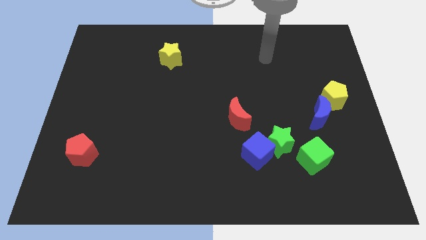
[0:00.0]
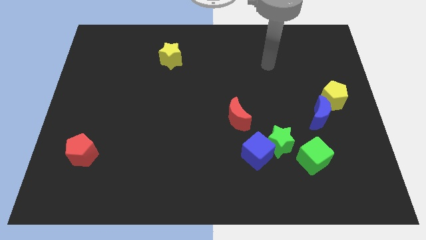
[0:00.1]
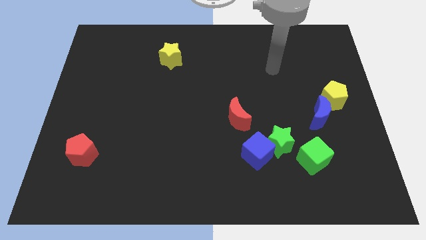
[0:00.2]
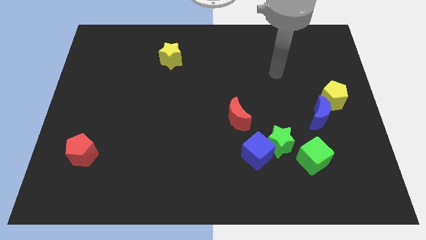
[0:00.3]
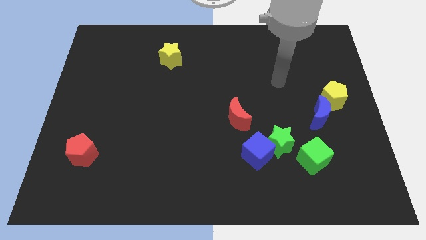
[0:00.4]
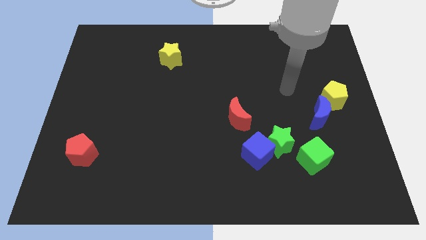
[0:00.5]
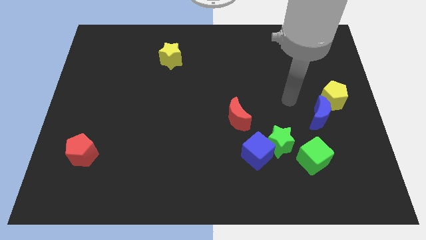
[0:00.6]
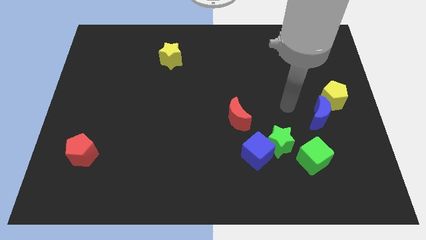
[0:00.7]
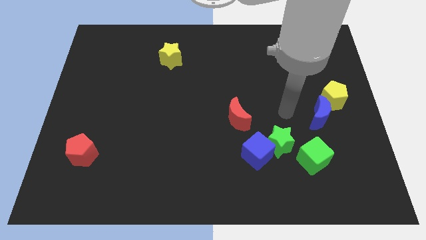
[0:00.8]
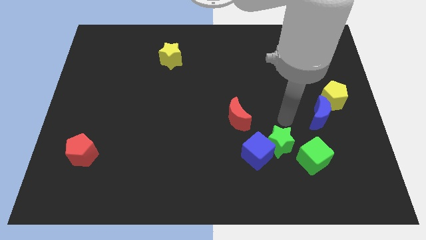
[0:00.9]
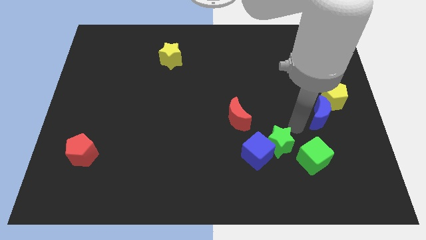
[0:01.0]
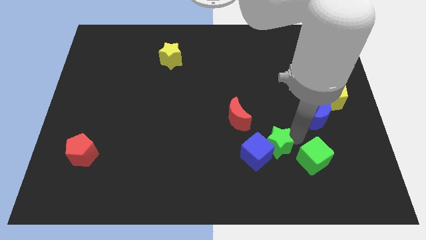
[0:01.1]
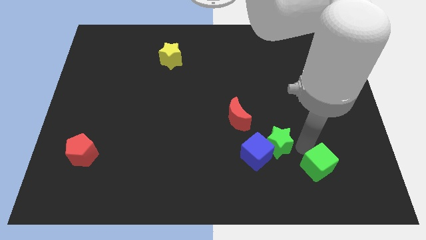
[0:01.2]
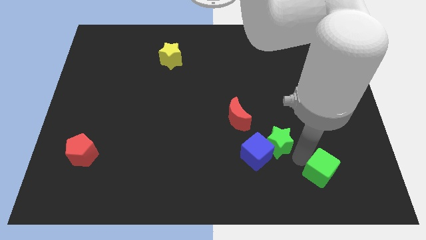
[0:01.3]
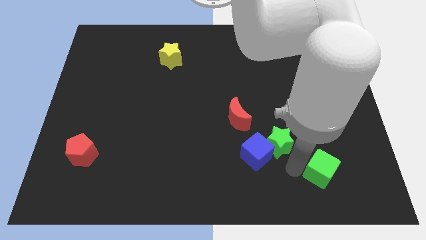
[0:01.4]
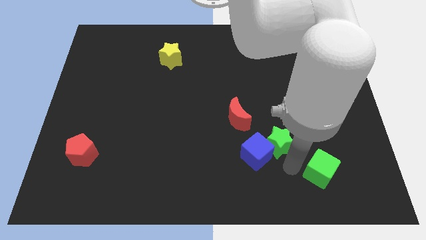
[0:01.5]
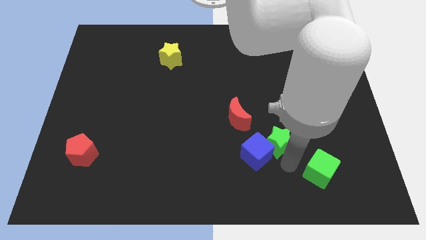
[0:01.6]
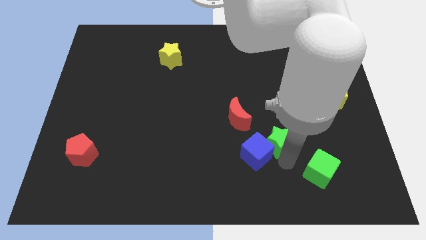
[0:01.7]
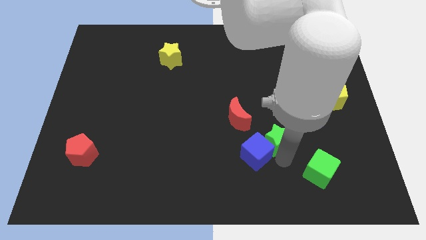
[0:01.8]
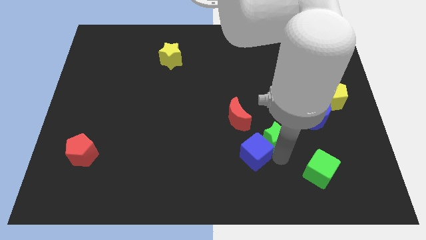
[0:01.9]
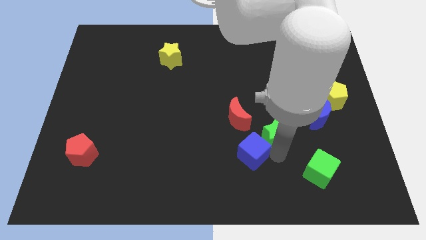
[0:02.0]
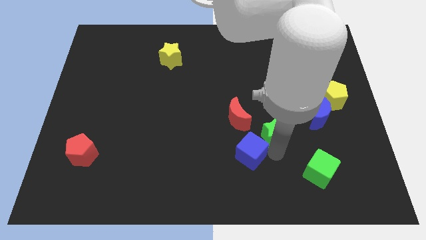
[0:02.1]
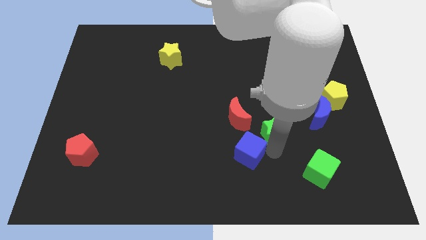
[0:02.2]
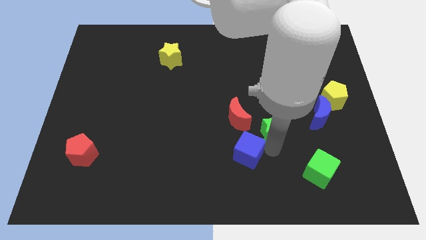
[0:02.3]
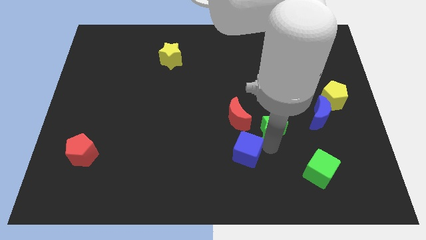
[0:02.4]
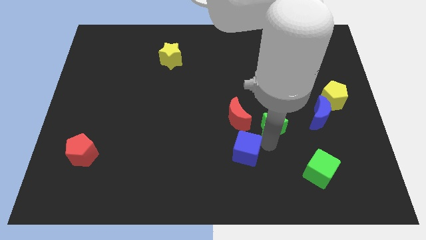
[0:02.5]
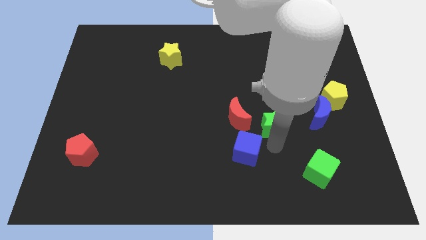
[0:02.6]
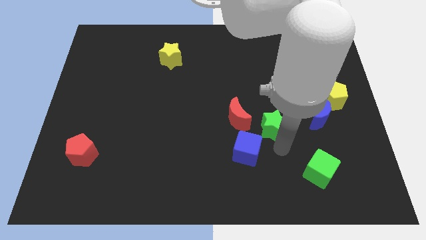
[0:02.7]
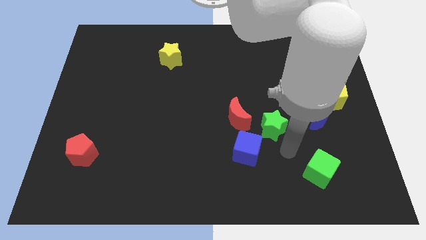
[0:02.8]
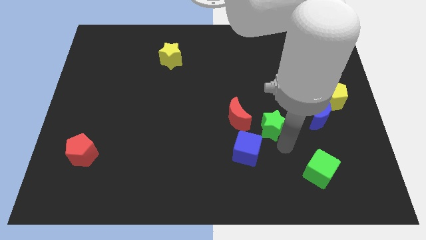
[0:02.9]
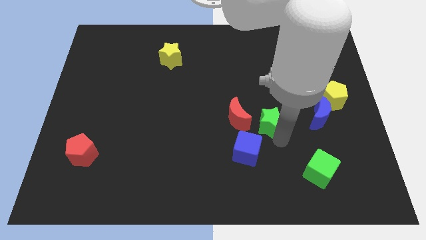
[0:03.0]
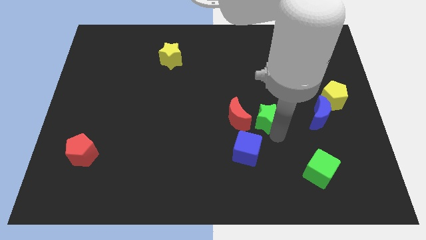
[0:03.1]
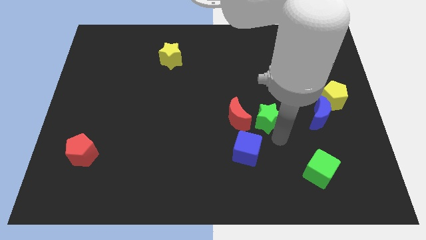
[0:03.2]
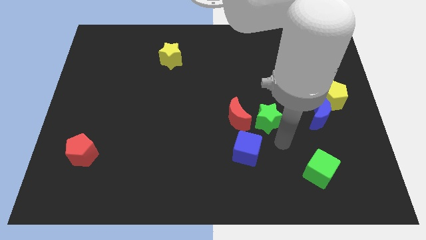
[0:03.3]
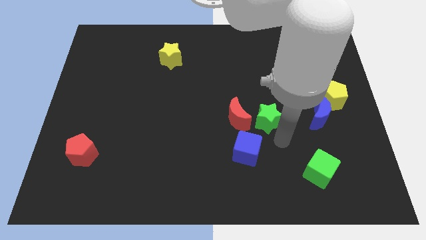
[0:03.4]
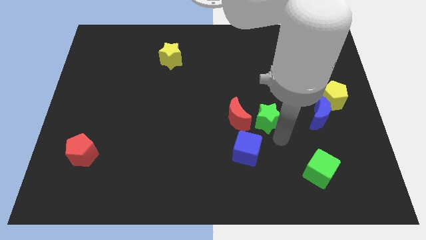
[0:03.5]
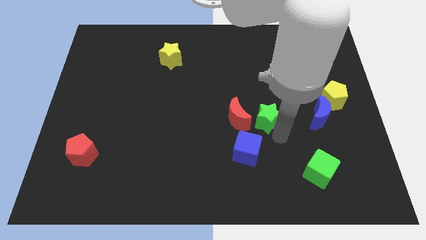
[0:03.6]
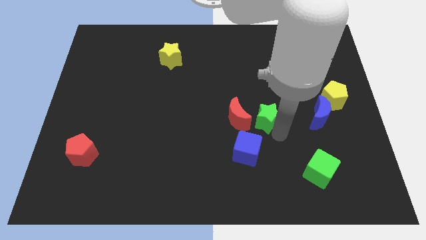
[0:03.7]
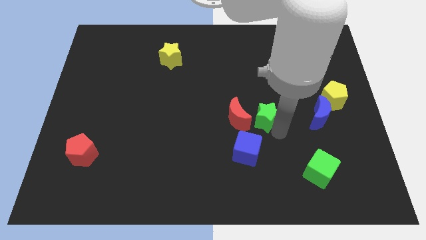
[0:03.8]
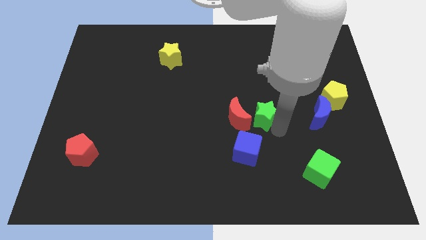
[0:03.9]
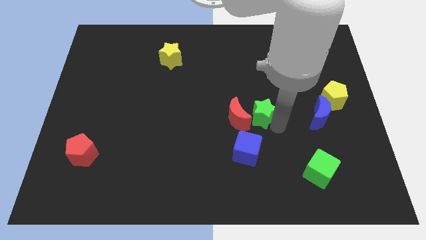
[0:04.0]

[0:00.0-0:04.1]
slide the green star diagonally upwards and left slightly

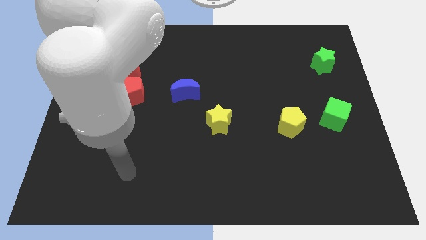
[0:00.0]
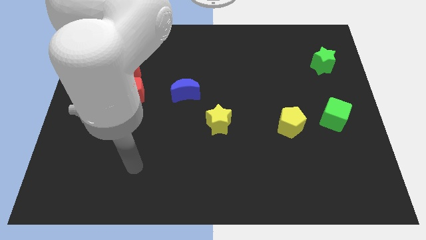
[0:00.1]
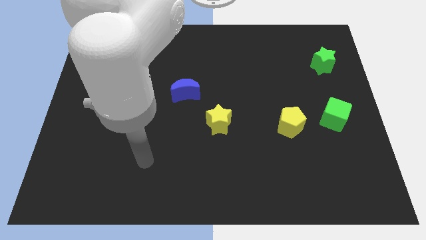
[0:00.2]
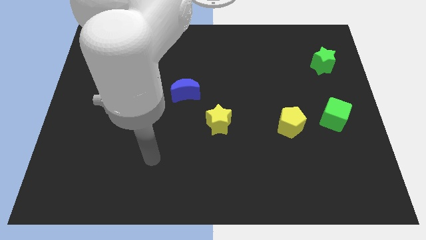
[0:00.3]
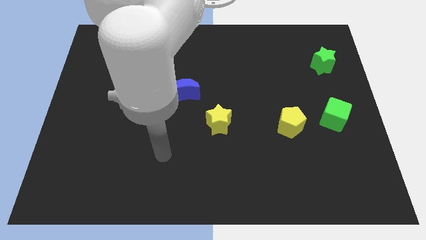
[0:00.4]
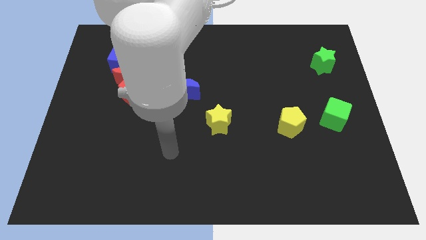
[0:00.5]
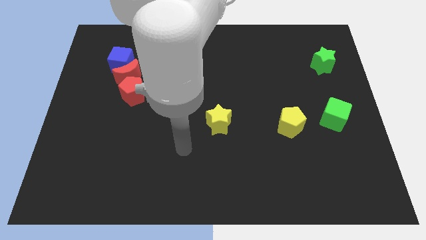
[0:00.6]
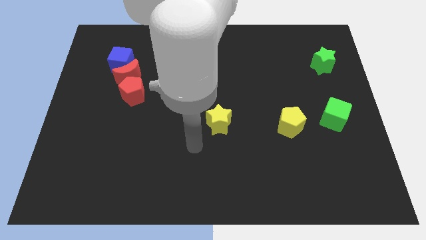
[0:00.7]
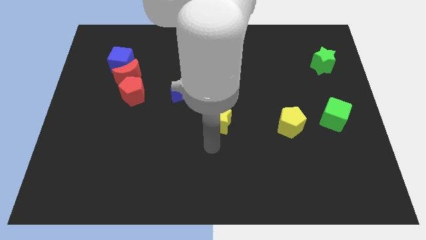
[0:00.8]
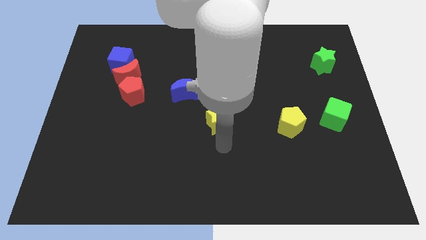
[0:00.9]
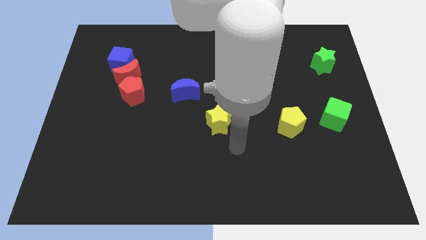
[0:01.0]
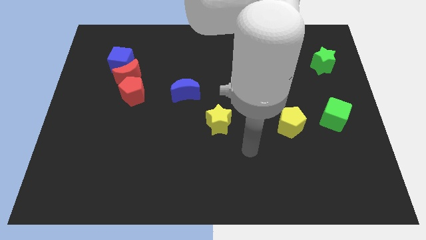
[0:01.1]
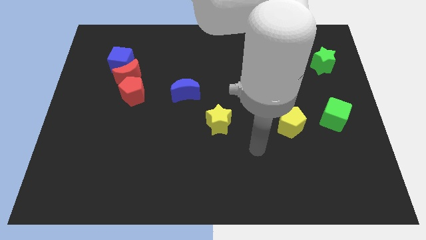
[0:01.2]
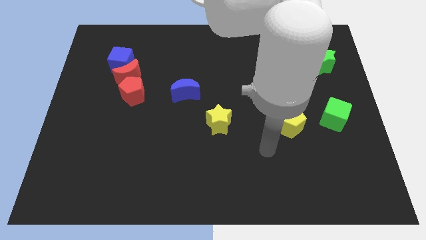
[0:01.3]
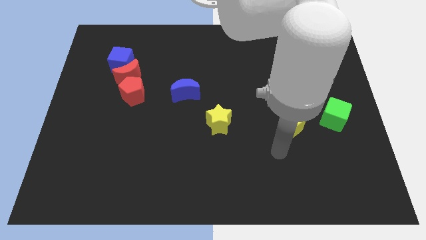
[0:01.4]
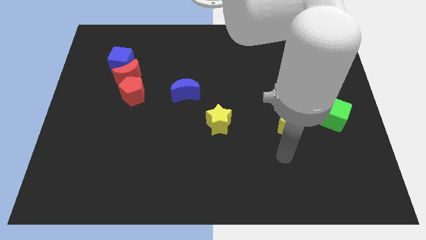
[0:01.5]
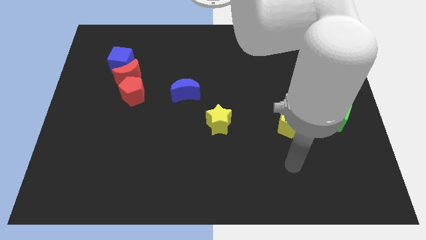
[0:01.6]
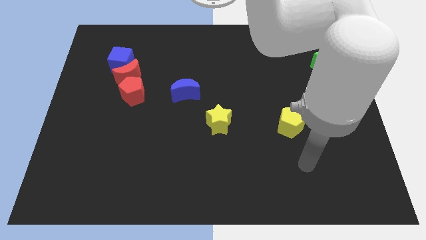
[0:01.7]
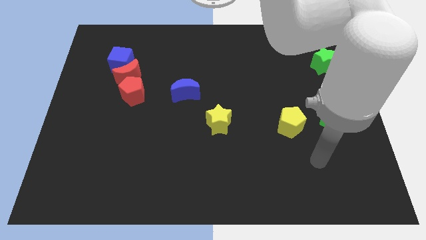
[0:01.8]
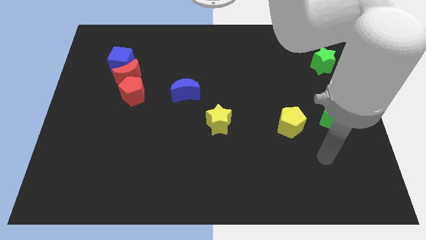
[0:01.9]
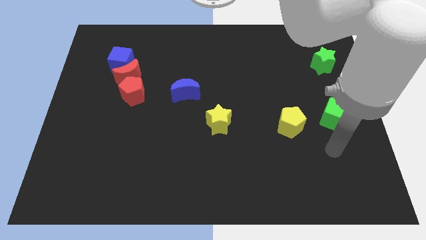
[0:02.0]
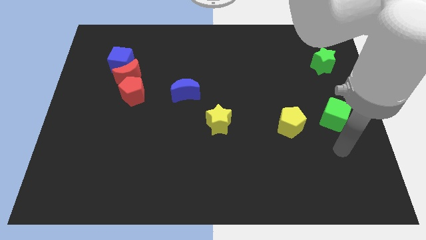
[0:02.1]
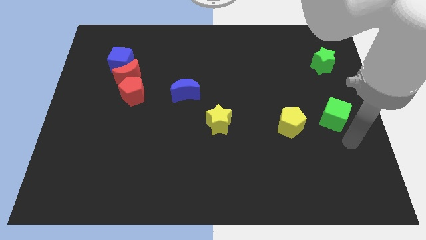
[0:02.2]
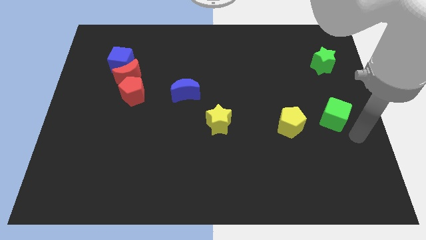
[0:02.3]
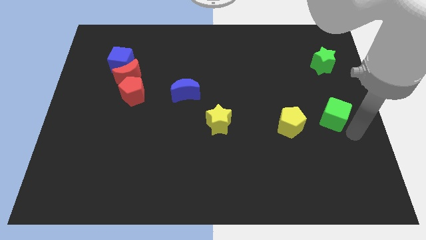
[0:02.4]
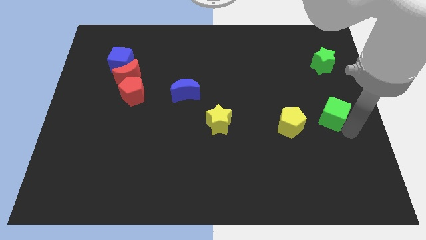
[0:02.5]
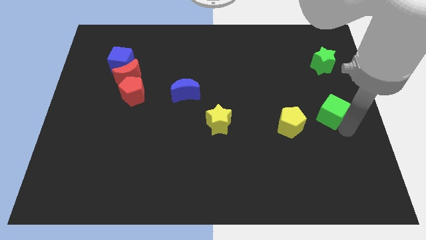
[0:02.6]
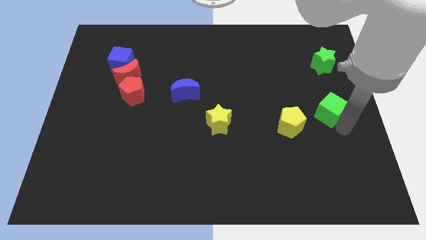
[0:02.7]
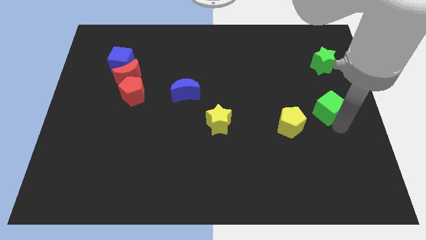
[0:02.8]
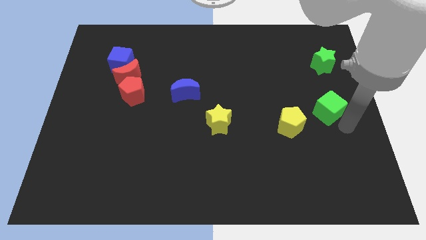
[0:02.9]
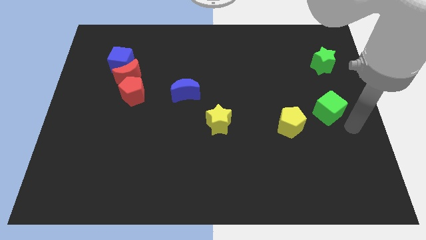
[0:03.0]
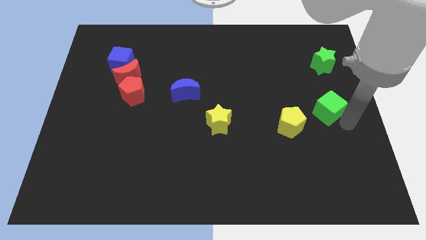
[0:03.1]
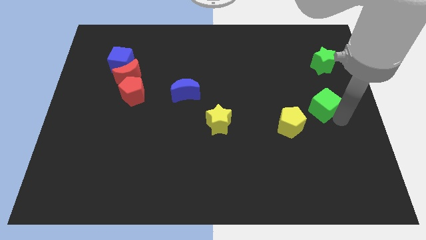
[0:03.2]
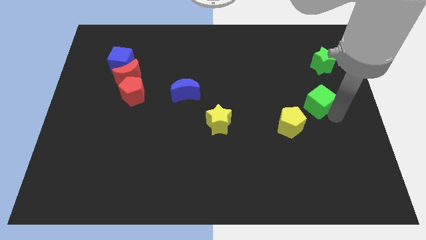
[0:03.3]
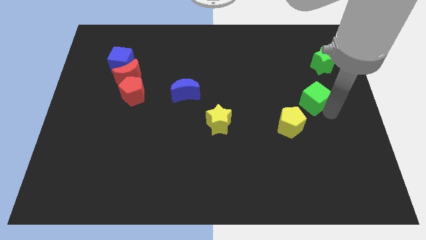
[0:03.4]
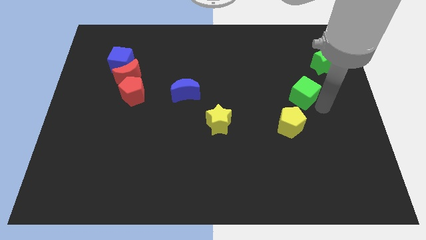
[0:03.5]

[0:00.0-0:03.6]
move the green cube upwards and to the left slightly
